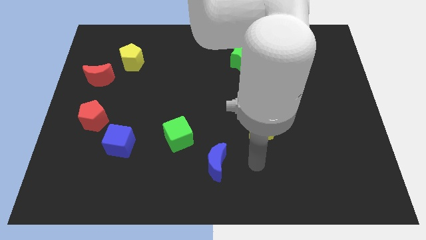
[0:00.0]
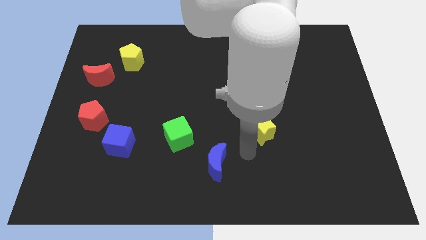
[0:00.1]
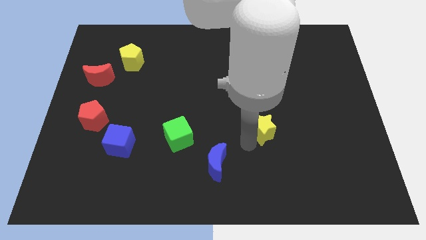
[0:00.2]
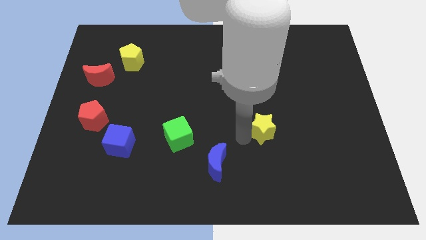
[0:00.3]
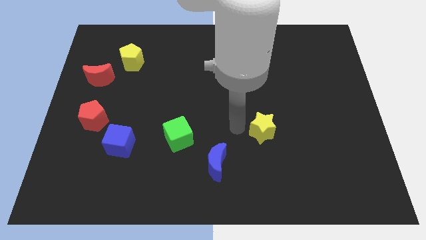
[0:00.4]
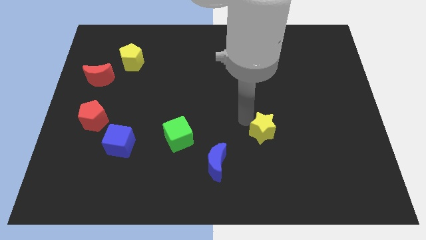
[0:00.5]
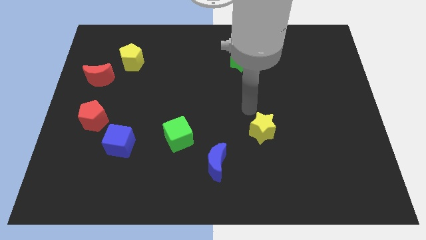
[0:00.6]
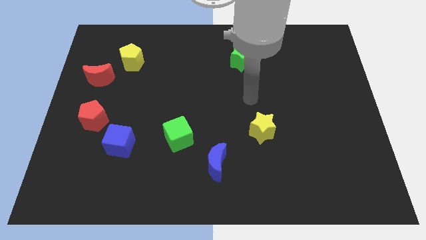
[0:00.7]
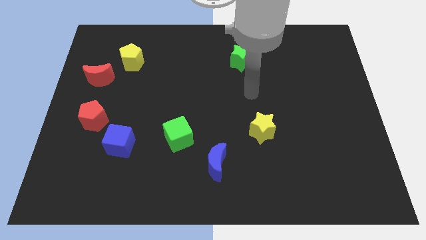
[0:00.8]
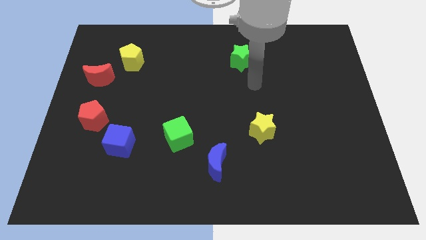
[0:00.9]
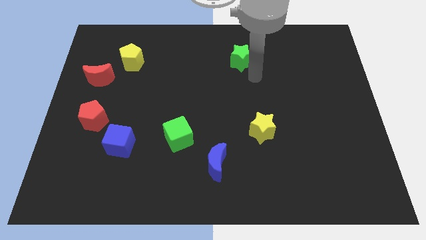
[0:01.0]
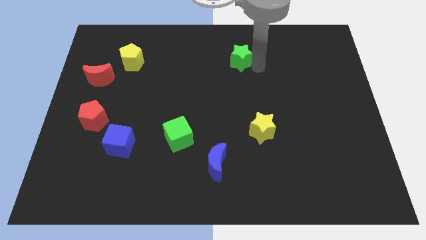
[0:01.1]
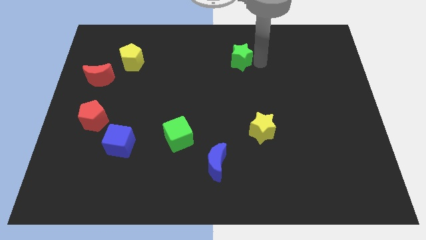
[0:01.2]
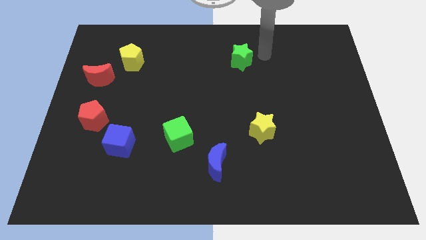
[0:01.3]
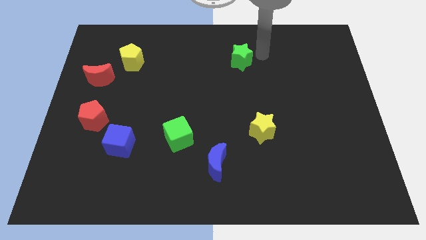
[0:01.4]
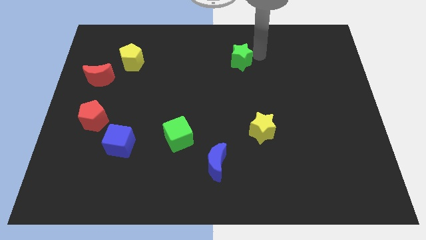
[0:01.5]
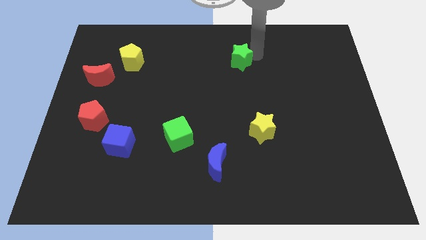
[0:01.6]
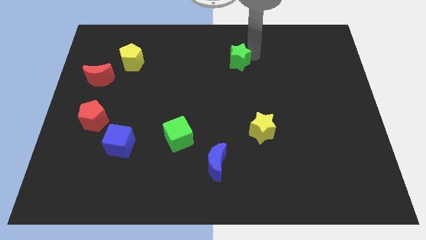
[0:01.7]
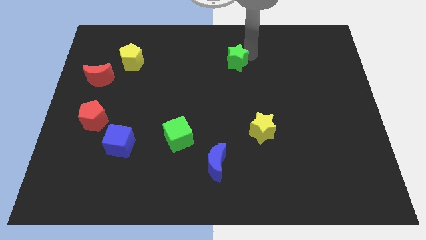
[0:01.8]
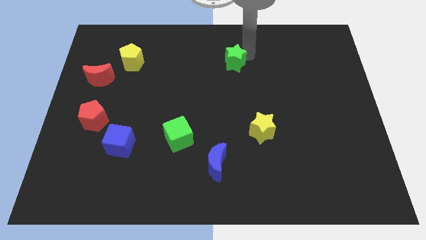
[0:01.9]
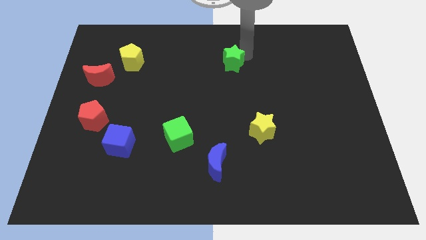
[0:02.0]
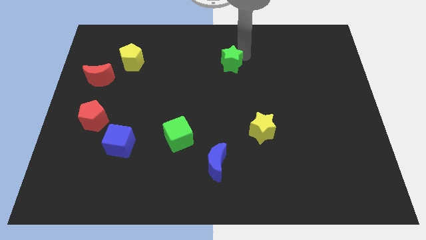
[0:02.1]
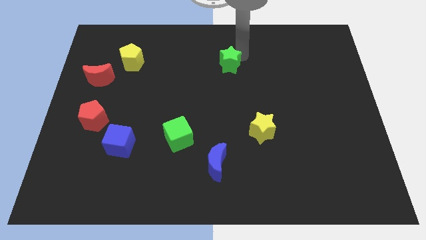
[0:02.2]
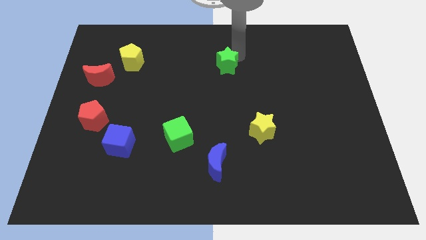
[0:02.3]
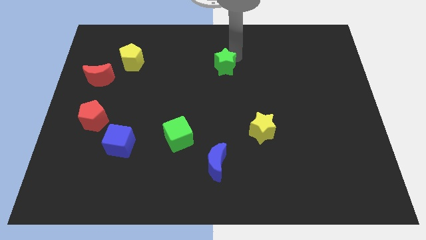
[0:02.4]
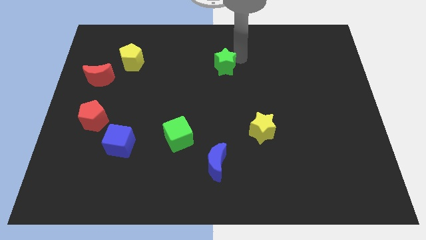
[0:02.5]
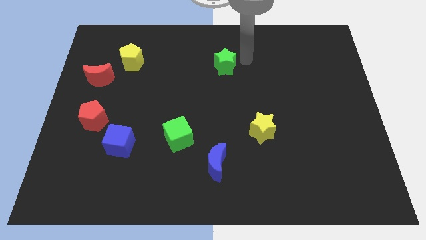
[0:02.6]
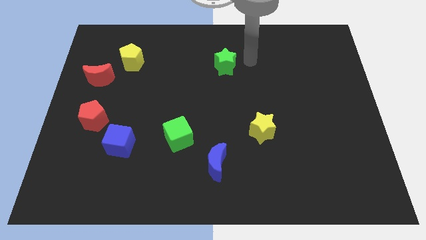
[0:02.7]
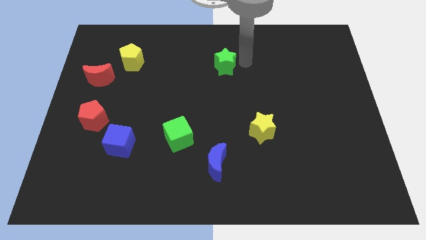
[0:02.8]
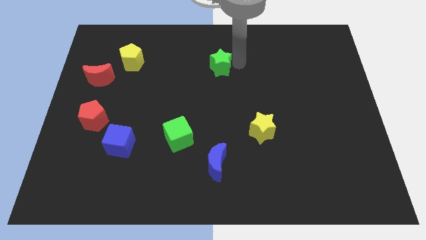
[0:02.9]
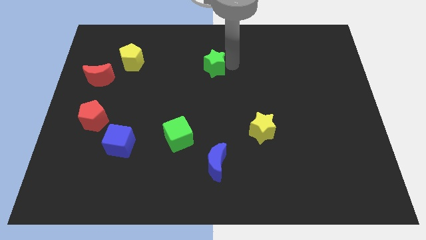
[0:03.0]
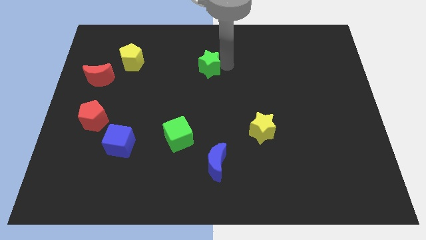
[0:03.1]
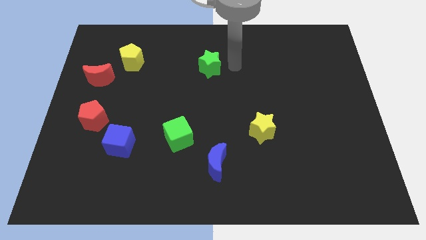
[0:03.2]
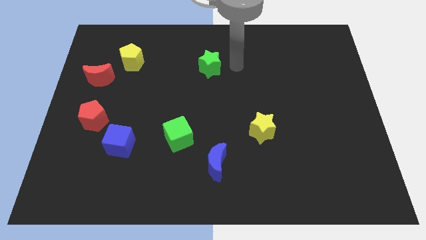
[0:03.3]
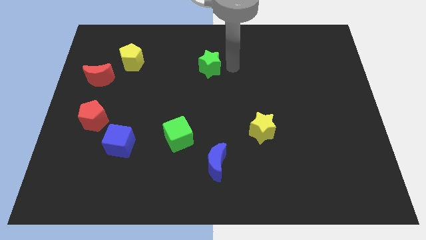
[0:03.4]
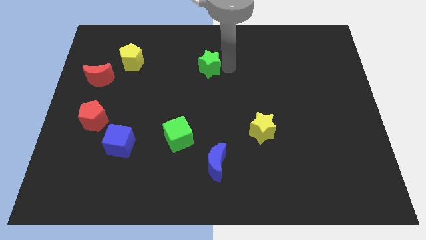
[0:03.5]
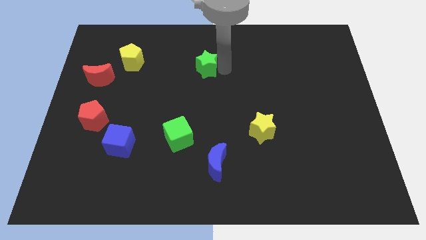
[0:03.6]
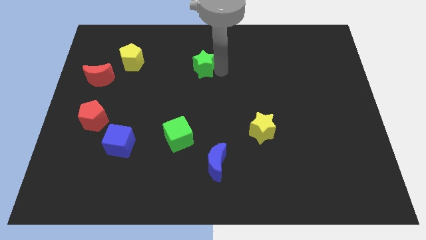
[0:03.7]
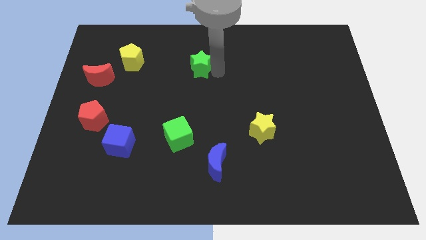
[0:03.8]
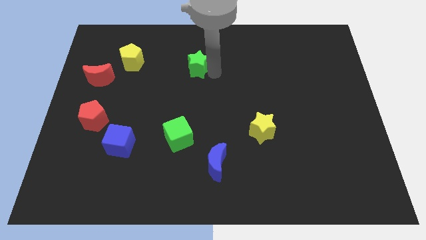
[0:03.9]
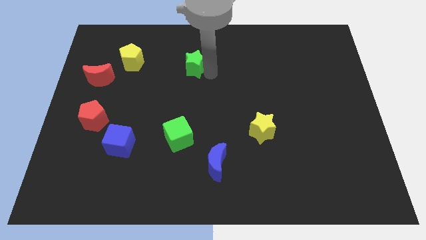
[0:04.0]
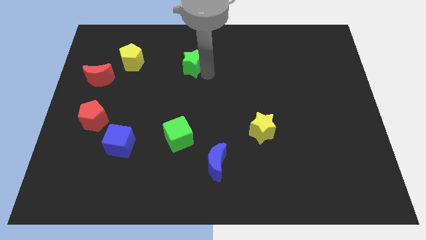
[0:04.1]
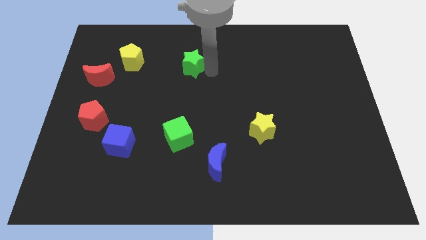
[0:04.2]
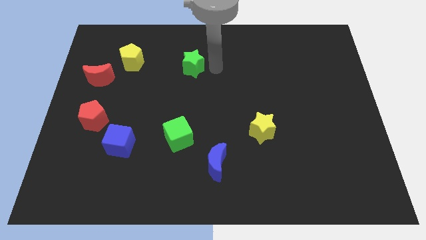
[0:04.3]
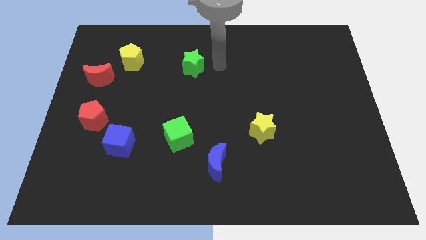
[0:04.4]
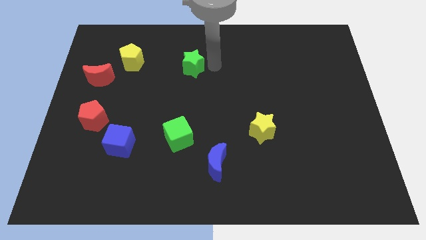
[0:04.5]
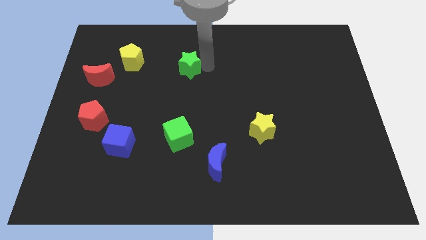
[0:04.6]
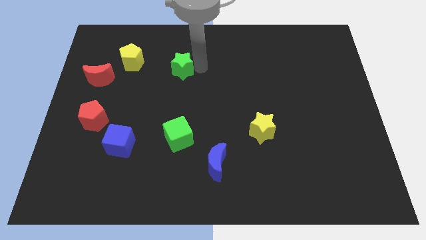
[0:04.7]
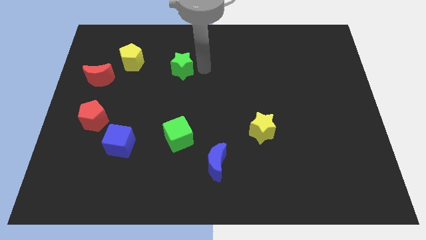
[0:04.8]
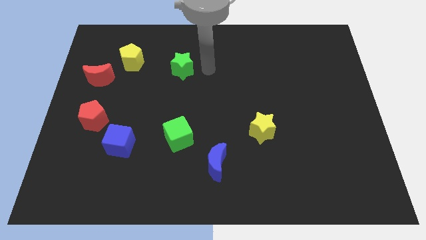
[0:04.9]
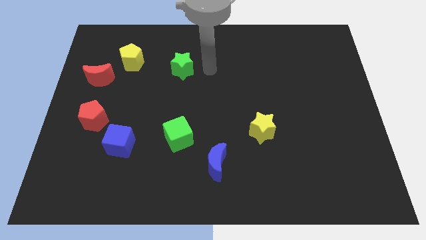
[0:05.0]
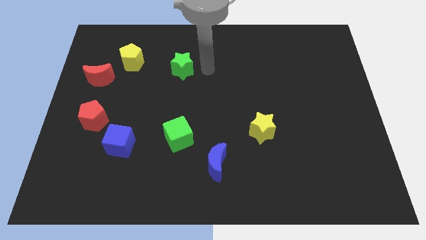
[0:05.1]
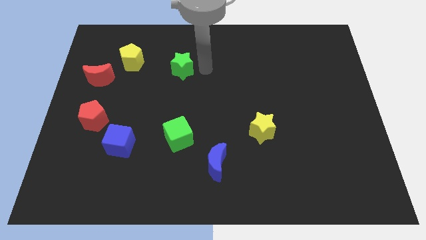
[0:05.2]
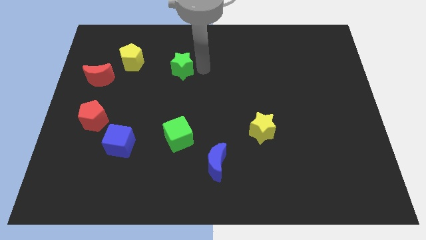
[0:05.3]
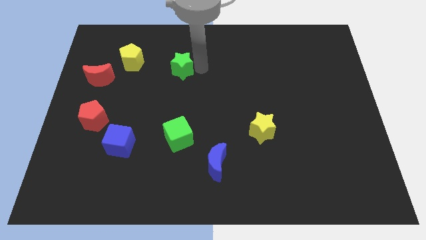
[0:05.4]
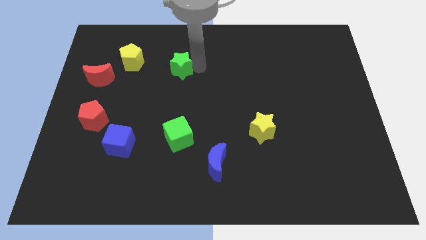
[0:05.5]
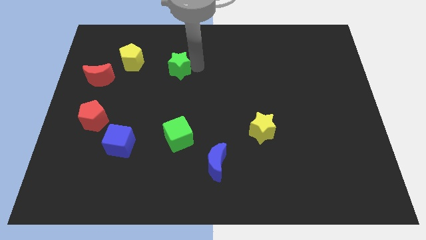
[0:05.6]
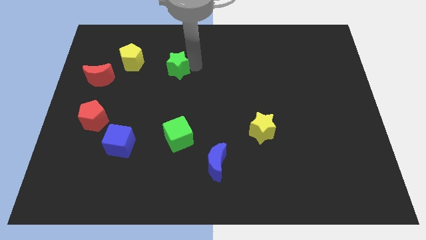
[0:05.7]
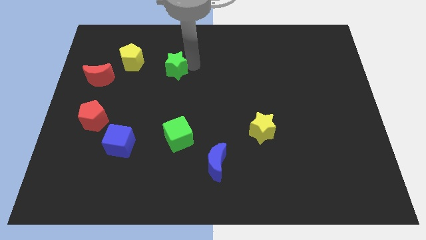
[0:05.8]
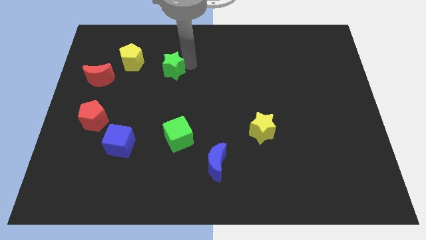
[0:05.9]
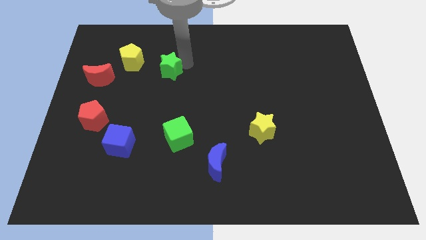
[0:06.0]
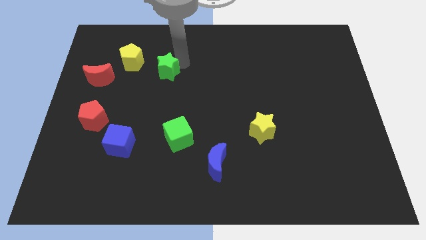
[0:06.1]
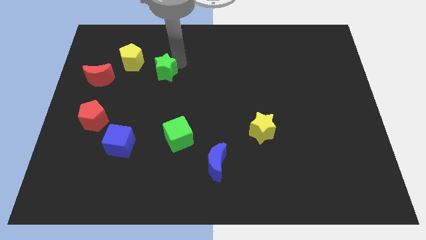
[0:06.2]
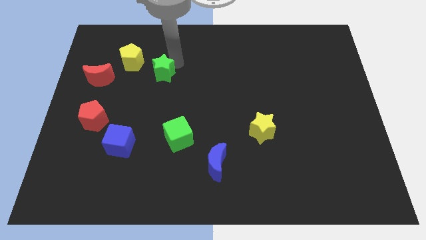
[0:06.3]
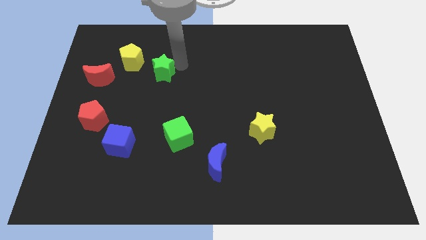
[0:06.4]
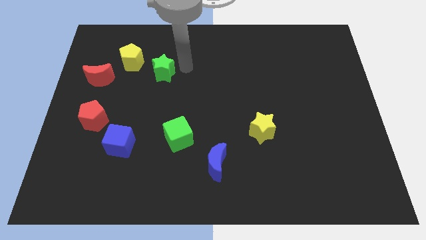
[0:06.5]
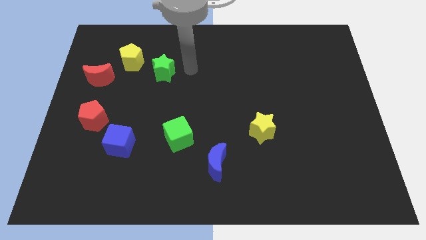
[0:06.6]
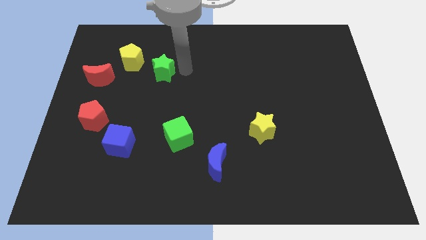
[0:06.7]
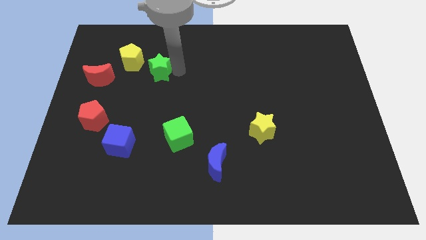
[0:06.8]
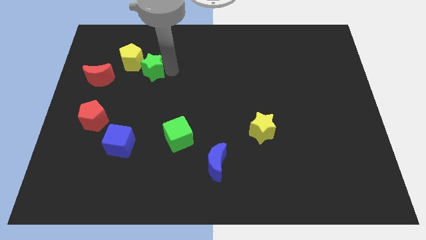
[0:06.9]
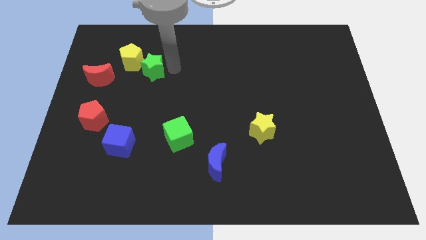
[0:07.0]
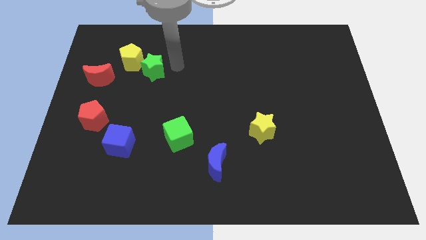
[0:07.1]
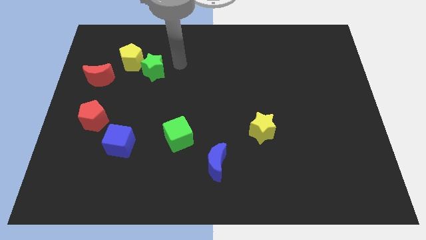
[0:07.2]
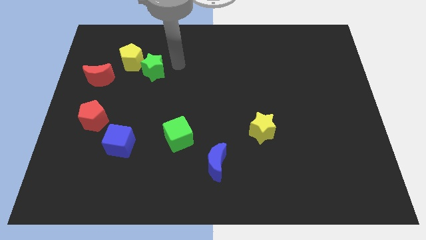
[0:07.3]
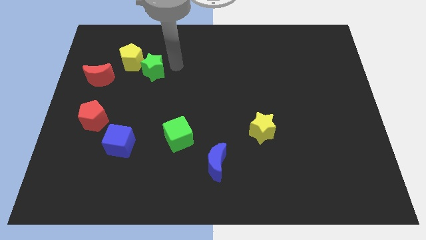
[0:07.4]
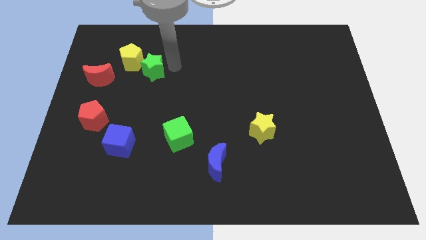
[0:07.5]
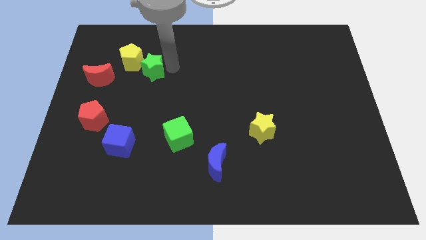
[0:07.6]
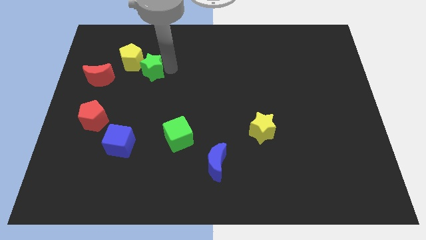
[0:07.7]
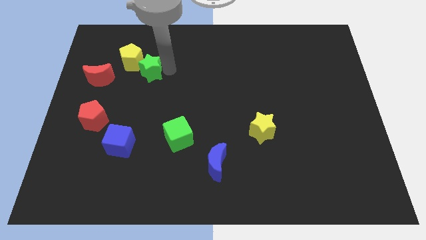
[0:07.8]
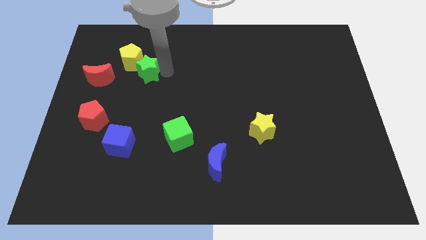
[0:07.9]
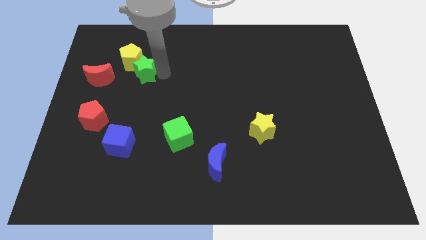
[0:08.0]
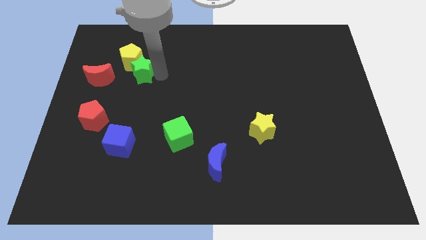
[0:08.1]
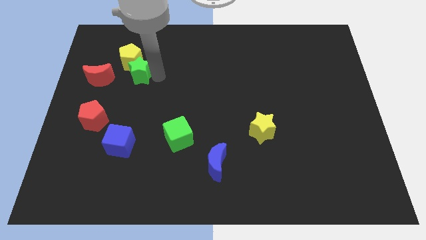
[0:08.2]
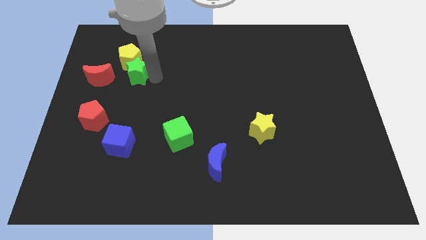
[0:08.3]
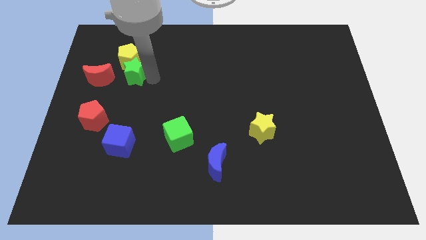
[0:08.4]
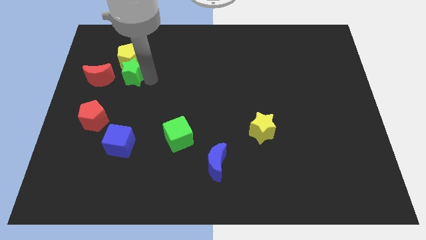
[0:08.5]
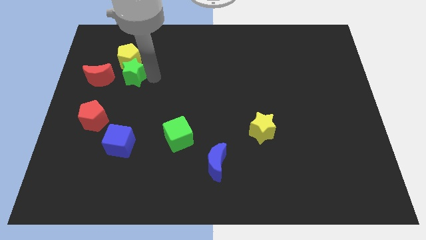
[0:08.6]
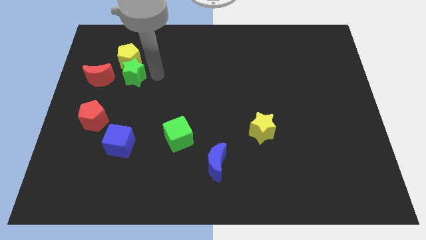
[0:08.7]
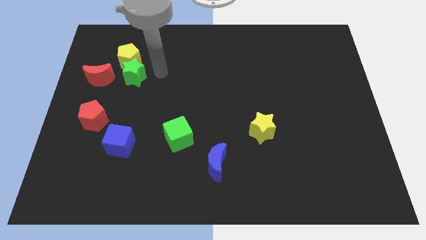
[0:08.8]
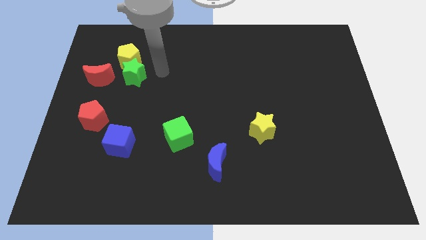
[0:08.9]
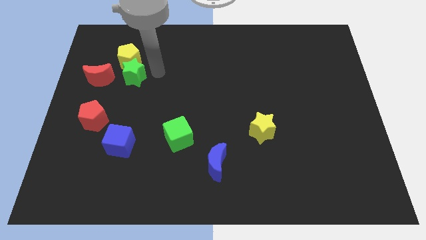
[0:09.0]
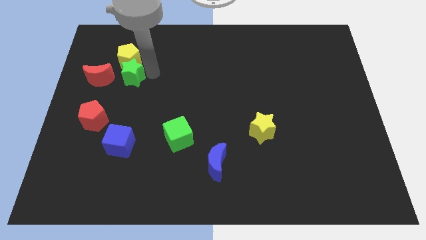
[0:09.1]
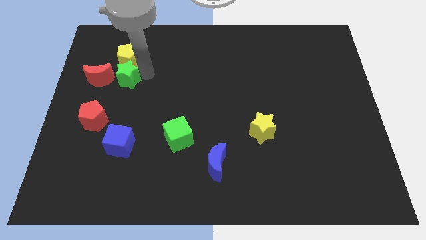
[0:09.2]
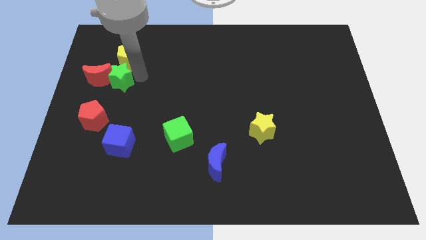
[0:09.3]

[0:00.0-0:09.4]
slide the green star to the red moon
